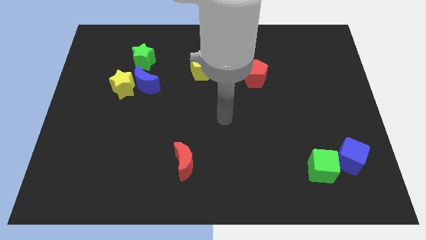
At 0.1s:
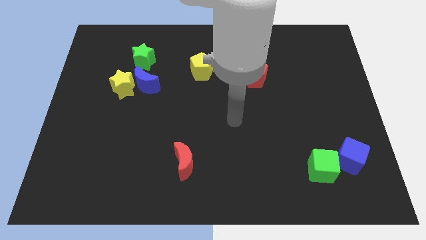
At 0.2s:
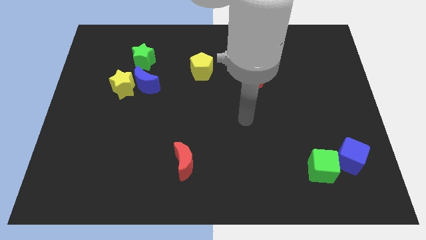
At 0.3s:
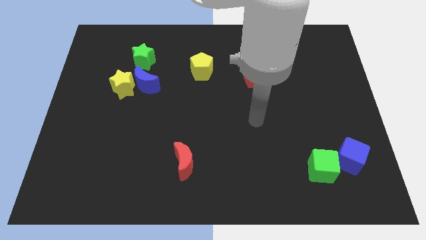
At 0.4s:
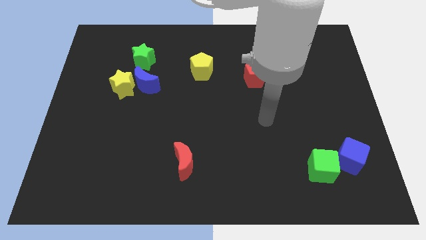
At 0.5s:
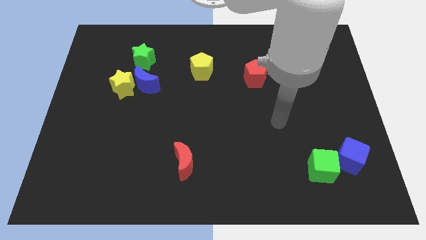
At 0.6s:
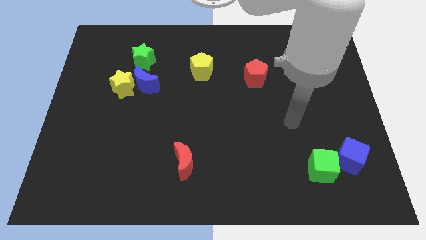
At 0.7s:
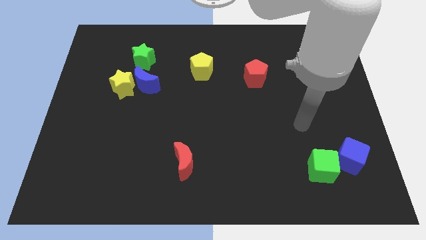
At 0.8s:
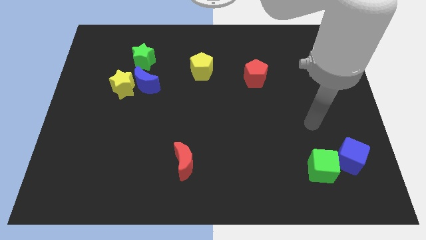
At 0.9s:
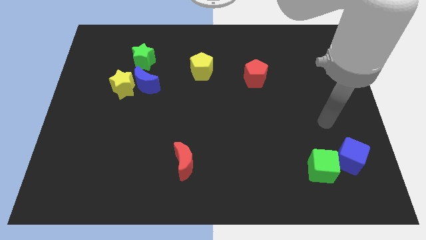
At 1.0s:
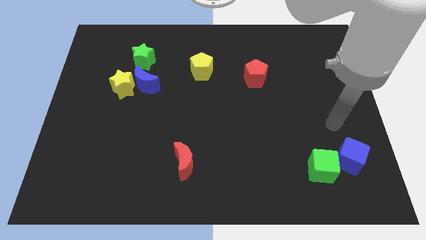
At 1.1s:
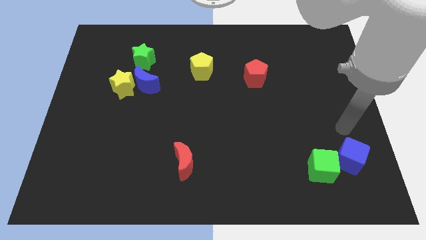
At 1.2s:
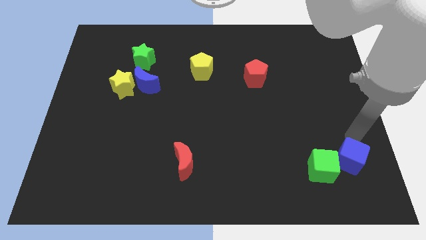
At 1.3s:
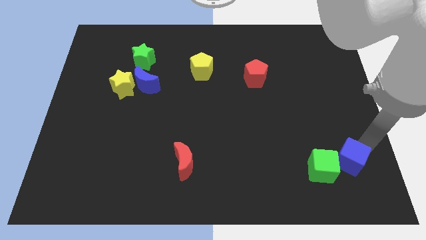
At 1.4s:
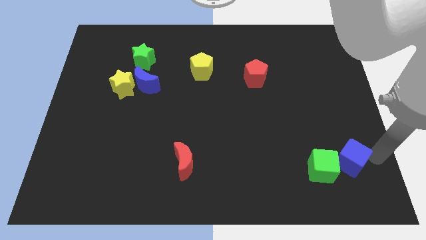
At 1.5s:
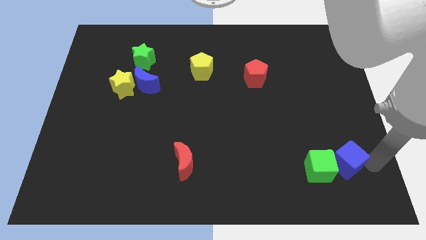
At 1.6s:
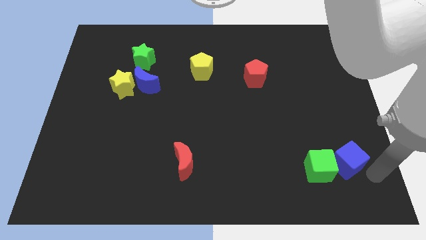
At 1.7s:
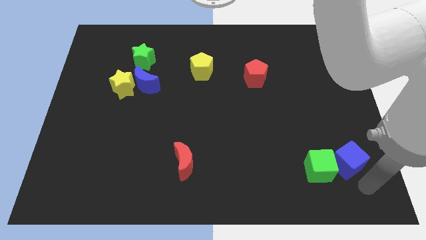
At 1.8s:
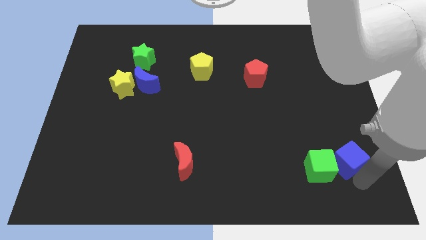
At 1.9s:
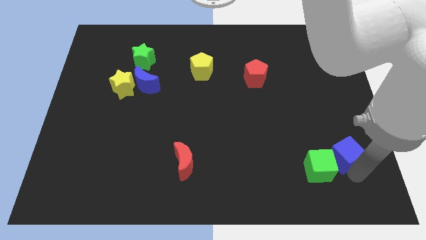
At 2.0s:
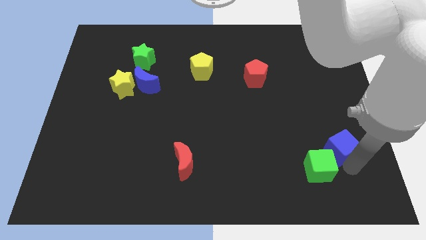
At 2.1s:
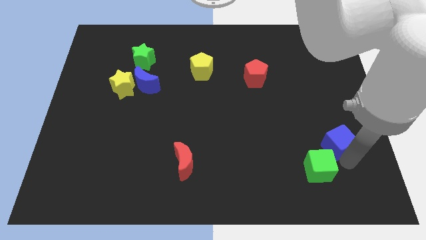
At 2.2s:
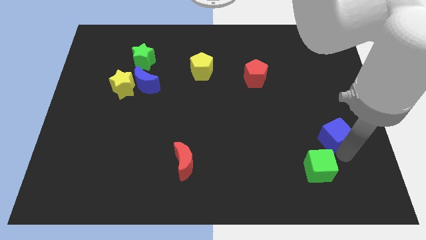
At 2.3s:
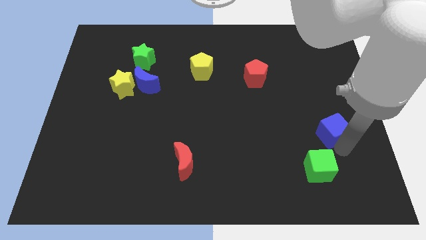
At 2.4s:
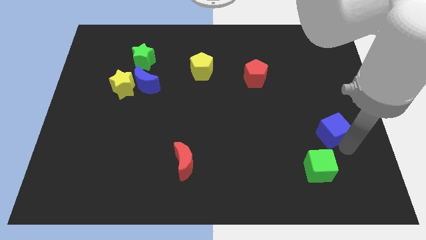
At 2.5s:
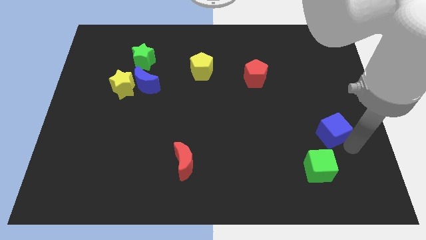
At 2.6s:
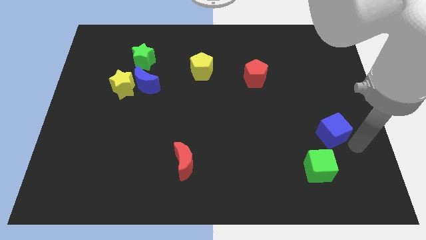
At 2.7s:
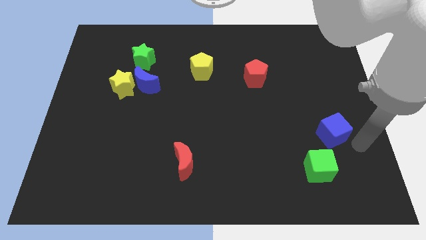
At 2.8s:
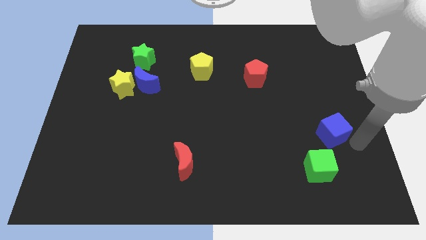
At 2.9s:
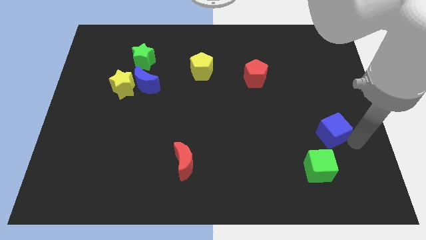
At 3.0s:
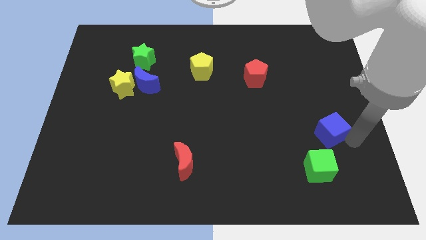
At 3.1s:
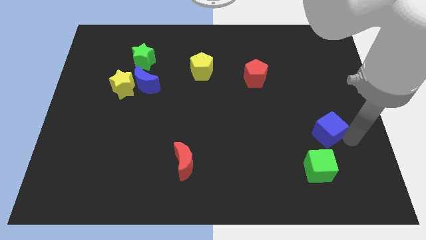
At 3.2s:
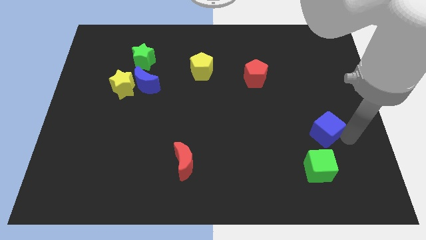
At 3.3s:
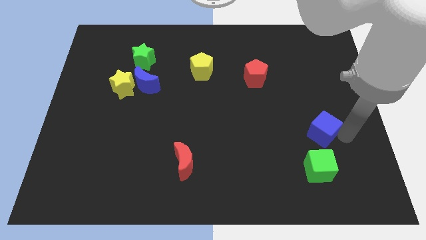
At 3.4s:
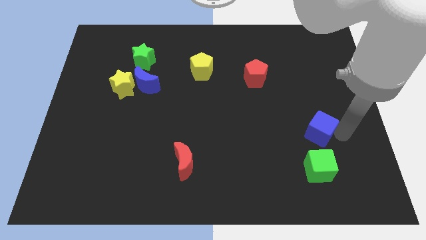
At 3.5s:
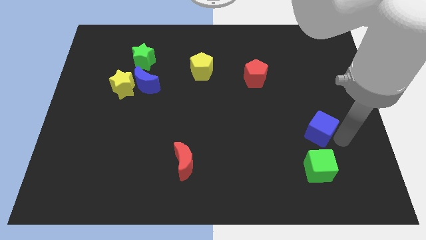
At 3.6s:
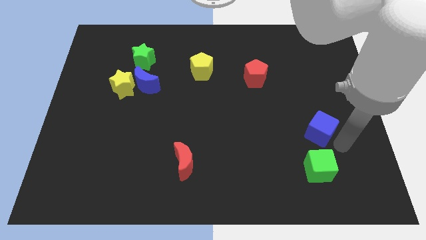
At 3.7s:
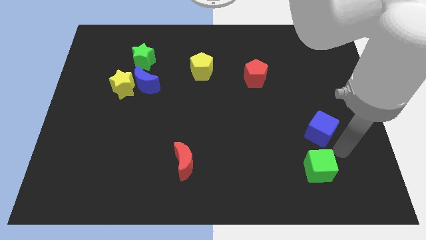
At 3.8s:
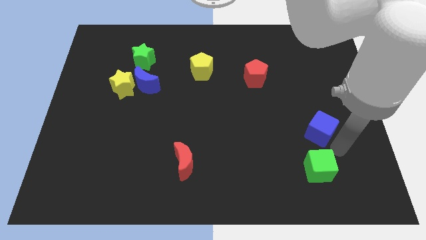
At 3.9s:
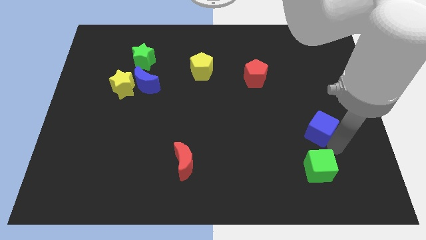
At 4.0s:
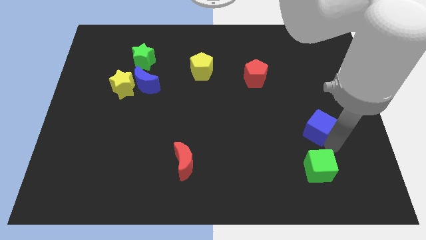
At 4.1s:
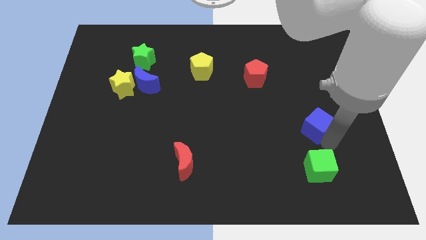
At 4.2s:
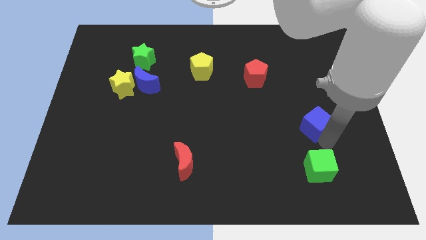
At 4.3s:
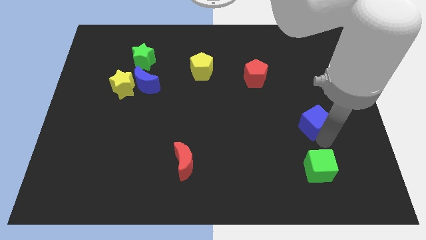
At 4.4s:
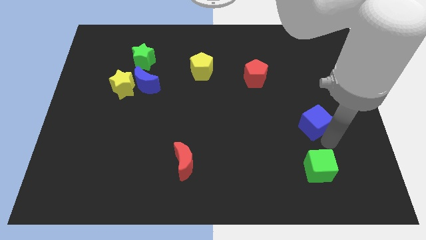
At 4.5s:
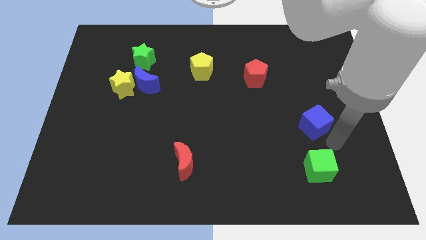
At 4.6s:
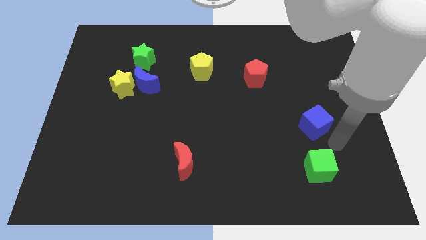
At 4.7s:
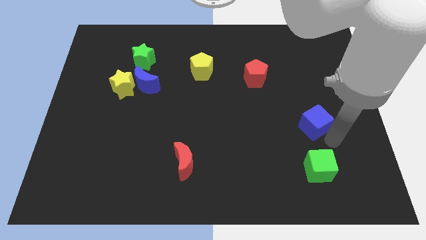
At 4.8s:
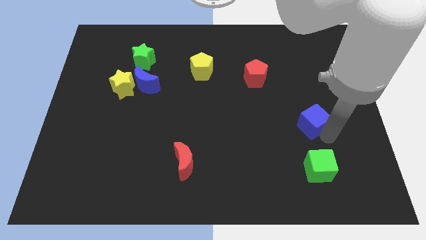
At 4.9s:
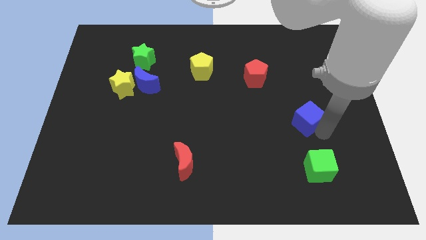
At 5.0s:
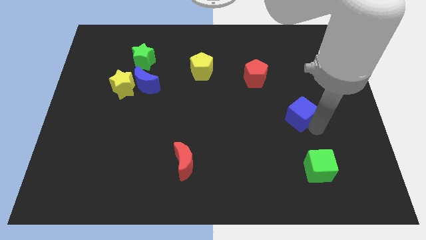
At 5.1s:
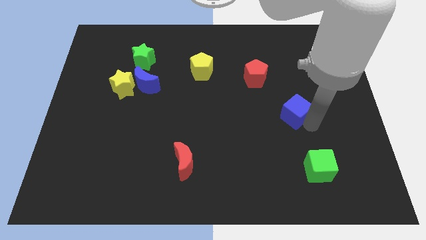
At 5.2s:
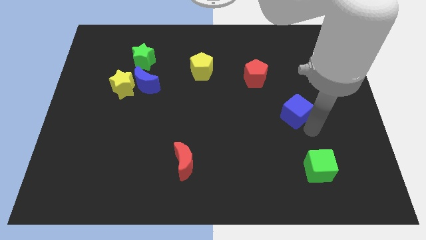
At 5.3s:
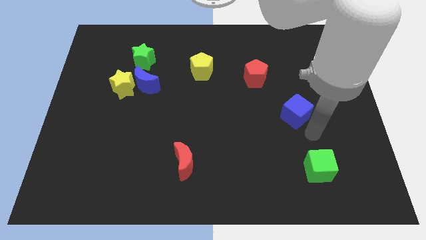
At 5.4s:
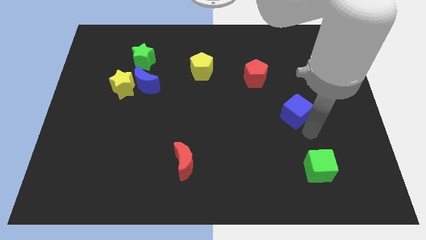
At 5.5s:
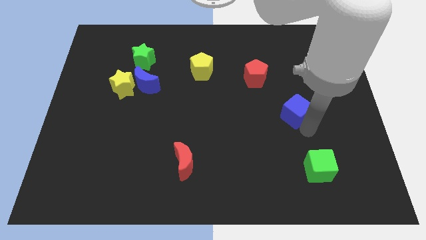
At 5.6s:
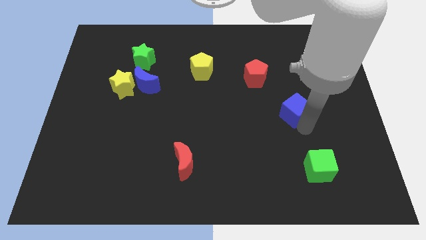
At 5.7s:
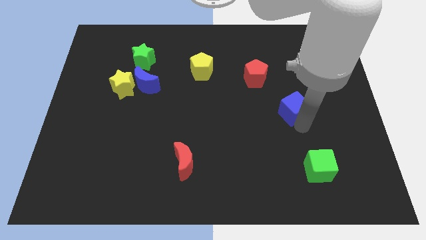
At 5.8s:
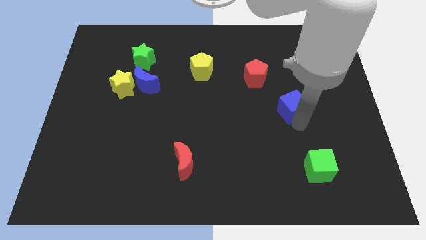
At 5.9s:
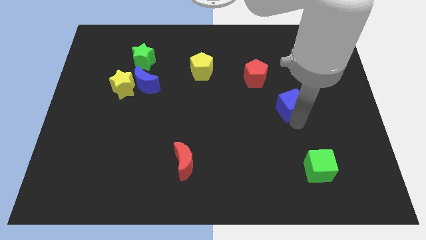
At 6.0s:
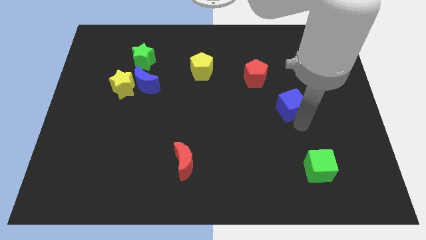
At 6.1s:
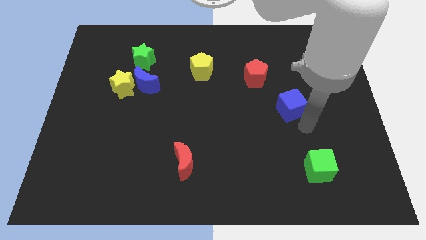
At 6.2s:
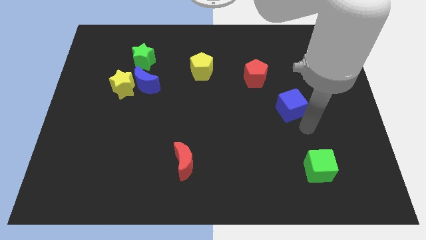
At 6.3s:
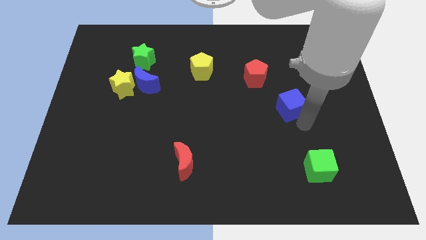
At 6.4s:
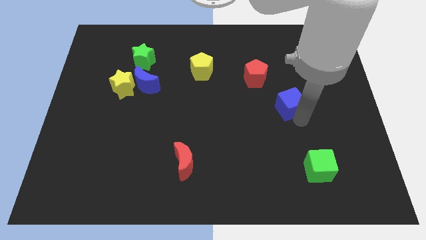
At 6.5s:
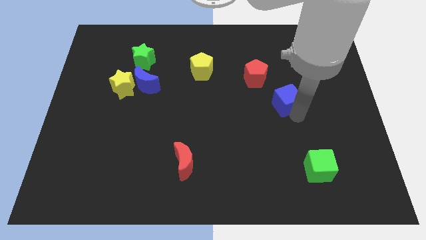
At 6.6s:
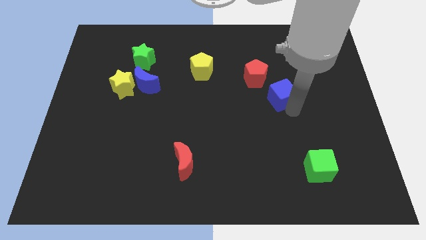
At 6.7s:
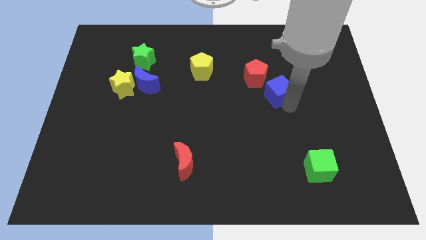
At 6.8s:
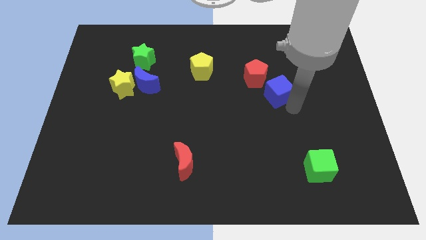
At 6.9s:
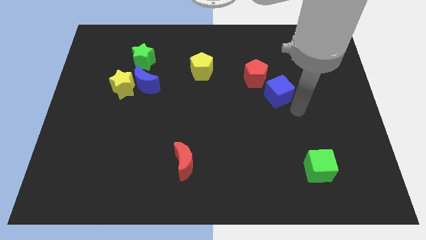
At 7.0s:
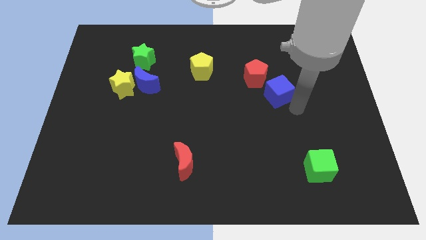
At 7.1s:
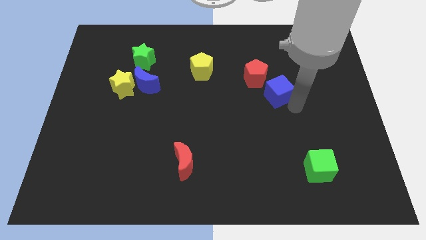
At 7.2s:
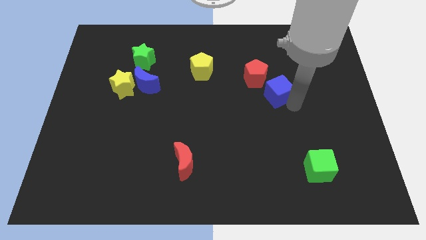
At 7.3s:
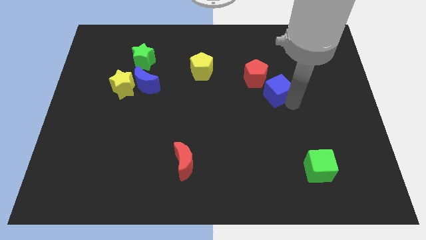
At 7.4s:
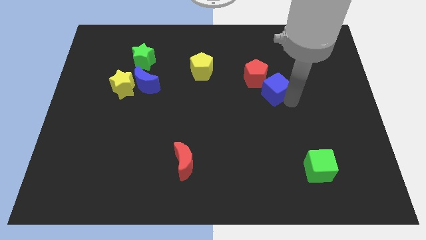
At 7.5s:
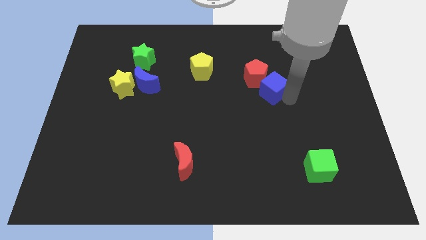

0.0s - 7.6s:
move the blue cube to the red pentagon
